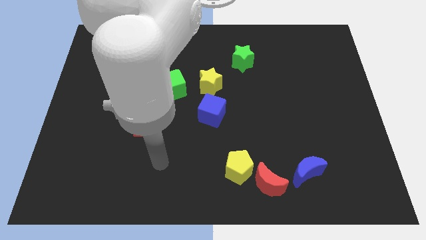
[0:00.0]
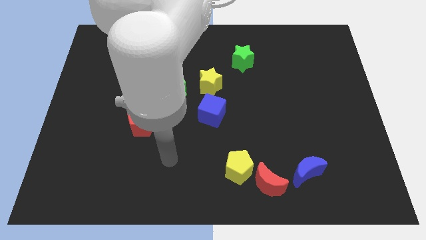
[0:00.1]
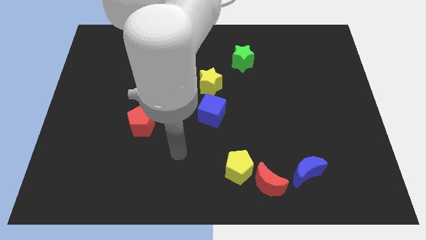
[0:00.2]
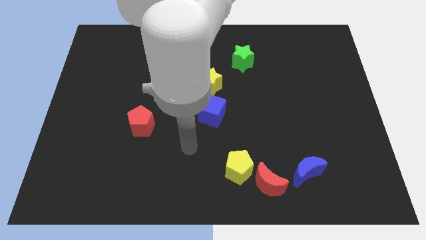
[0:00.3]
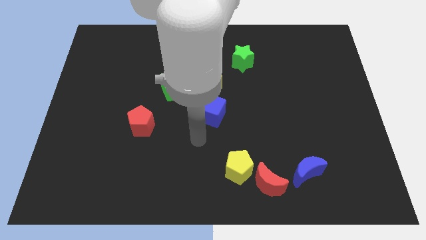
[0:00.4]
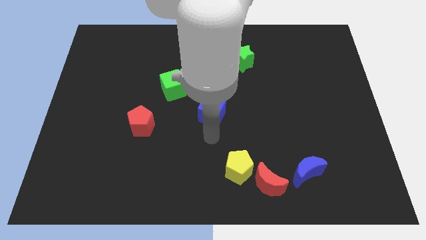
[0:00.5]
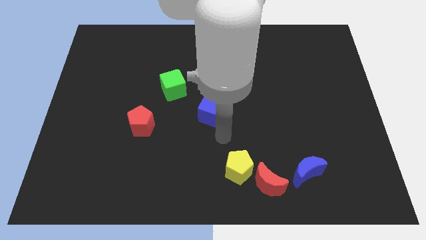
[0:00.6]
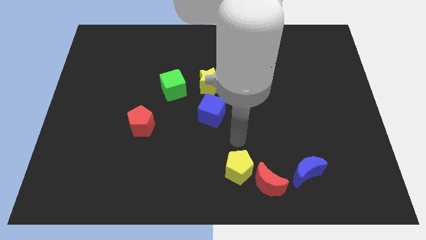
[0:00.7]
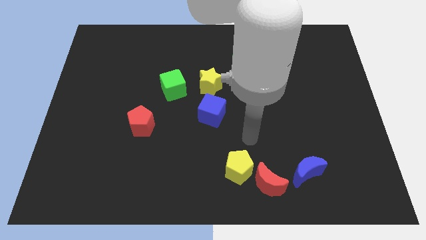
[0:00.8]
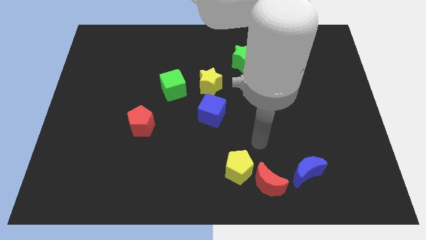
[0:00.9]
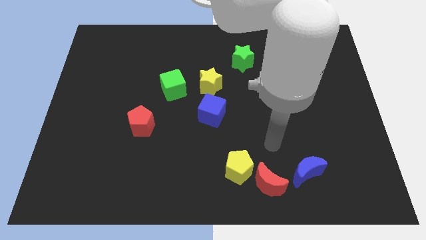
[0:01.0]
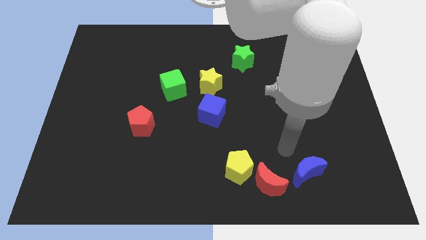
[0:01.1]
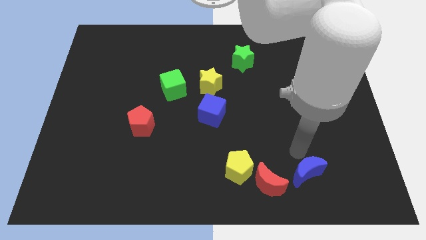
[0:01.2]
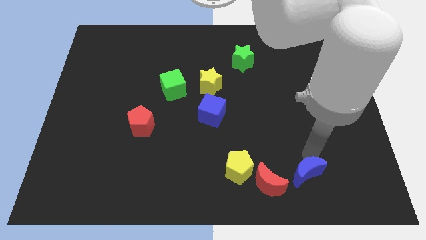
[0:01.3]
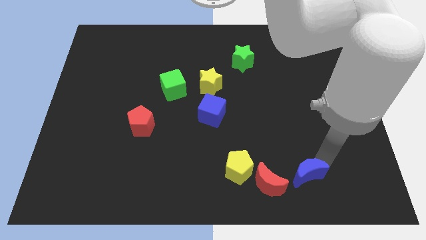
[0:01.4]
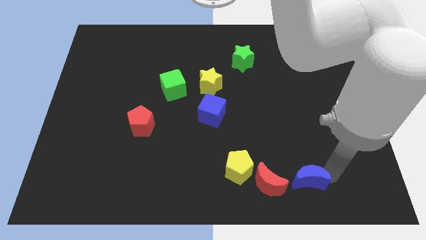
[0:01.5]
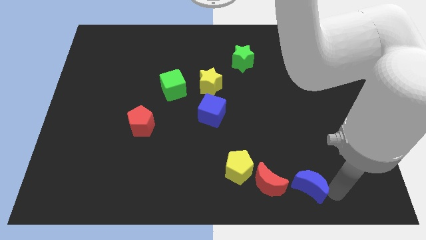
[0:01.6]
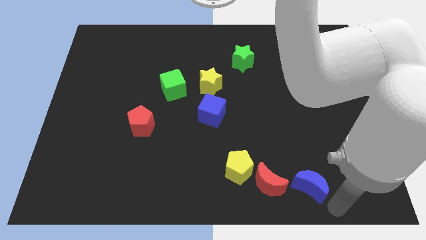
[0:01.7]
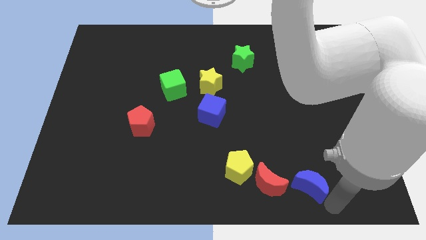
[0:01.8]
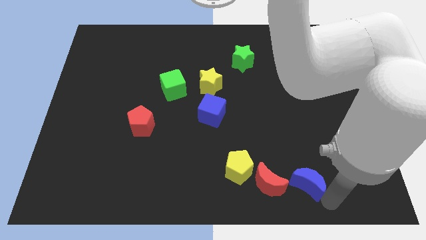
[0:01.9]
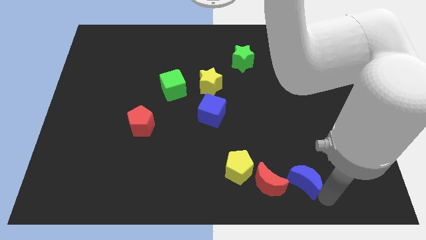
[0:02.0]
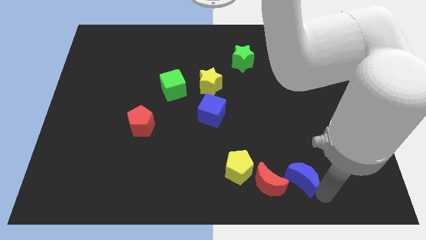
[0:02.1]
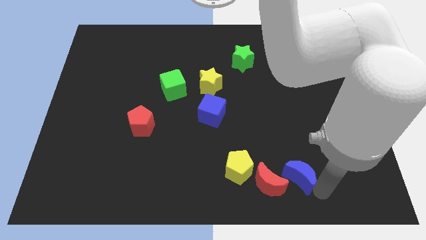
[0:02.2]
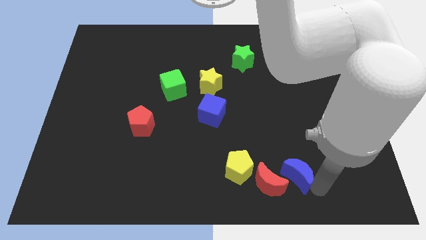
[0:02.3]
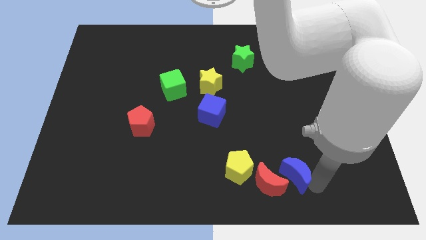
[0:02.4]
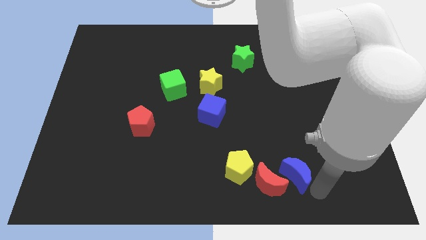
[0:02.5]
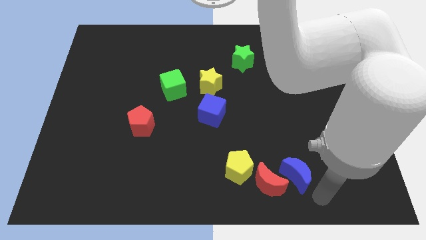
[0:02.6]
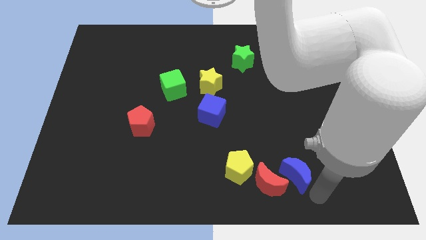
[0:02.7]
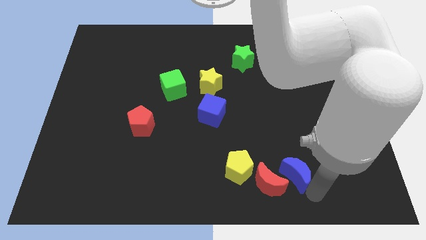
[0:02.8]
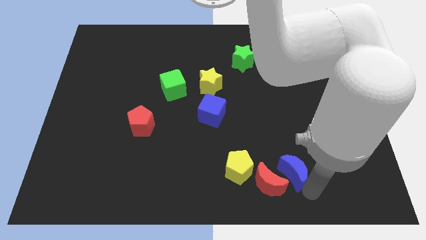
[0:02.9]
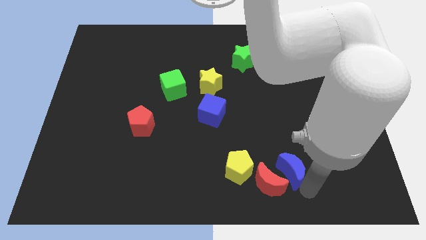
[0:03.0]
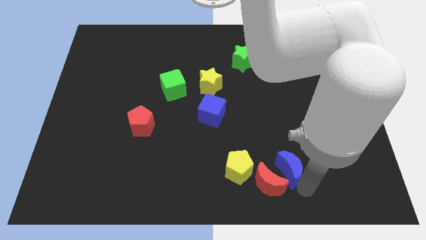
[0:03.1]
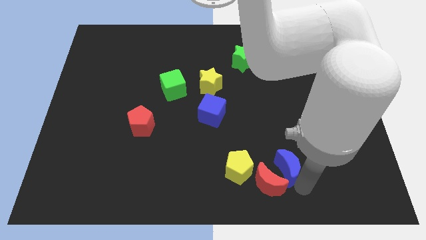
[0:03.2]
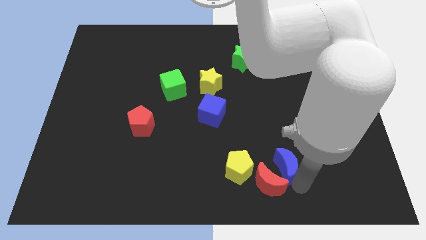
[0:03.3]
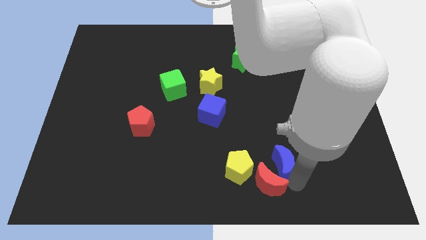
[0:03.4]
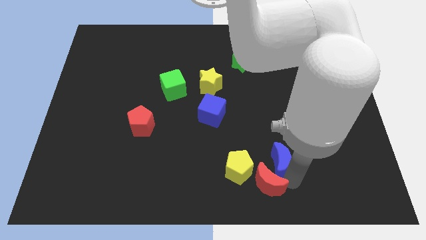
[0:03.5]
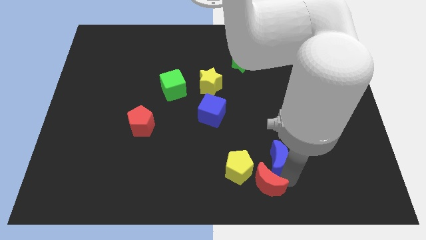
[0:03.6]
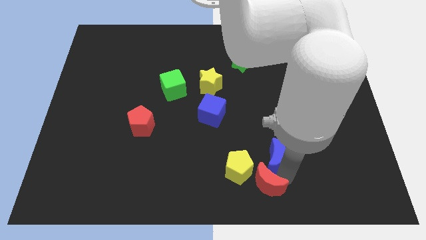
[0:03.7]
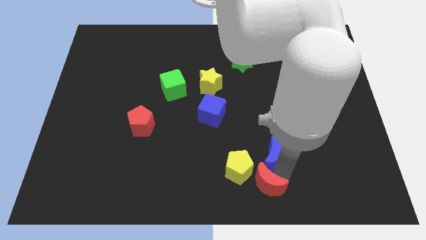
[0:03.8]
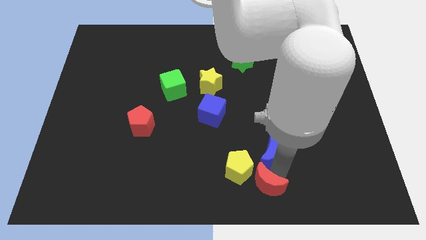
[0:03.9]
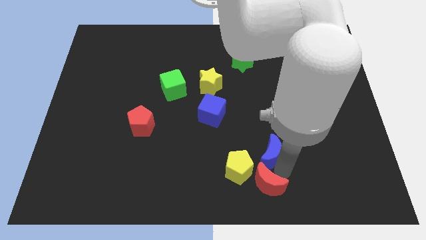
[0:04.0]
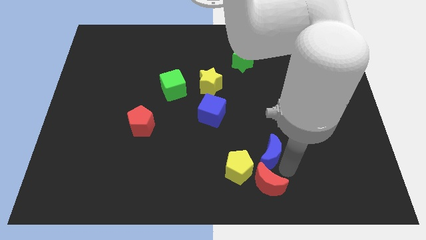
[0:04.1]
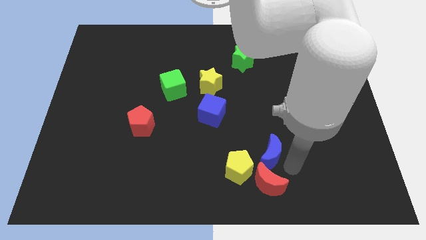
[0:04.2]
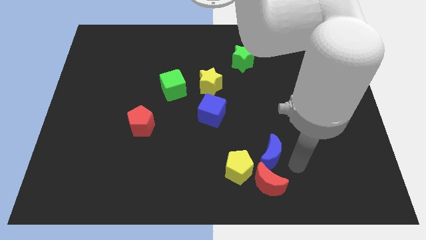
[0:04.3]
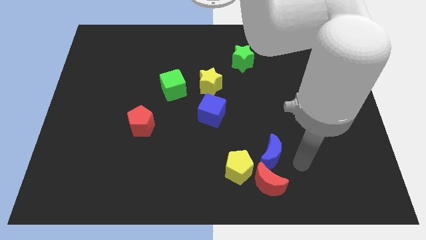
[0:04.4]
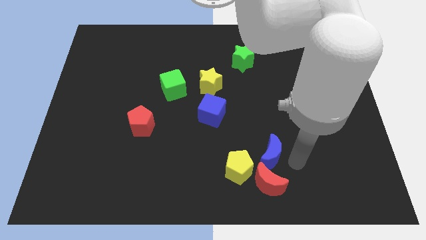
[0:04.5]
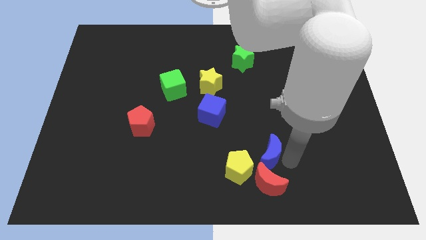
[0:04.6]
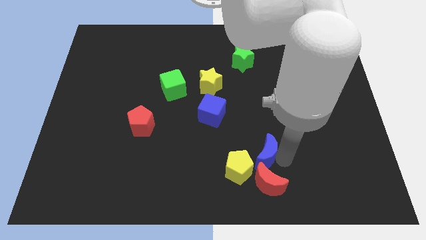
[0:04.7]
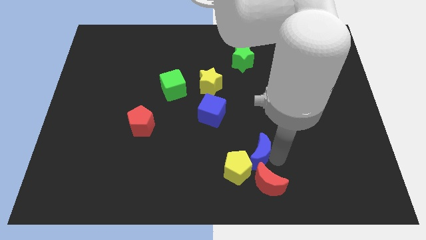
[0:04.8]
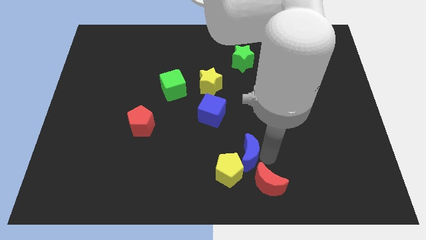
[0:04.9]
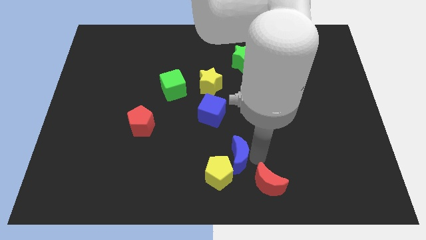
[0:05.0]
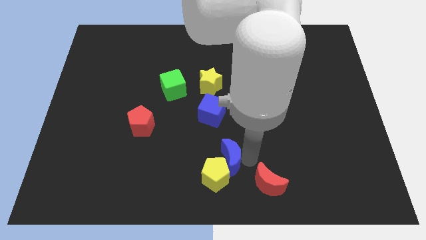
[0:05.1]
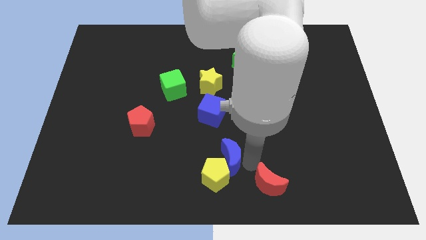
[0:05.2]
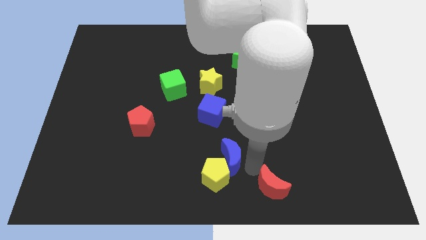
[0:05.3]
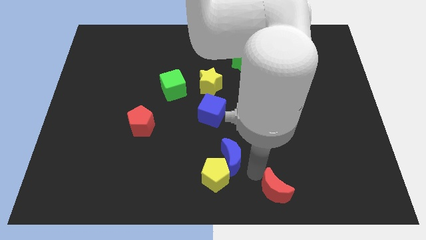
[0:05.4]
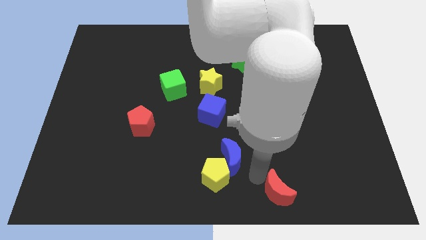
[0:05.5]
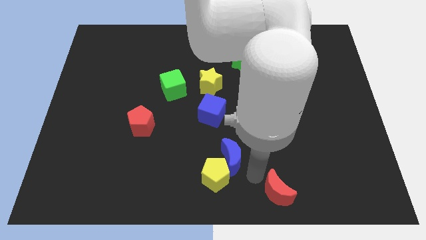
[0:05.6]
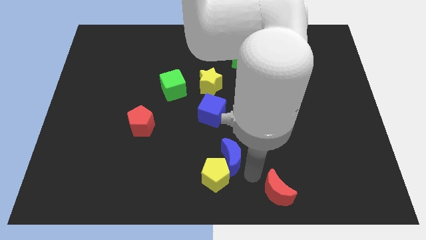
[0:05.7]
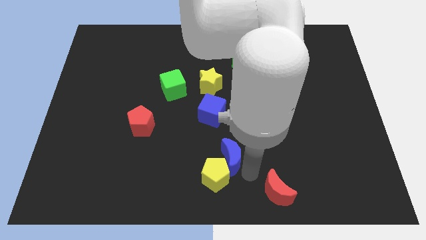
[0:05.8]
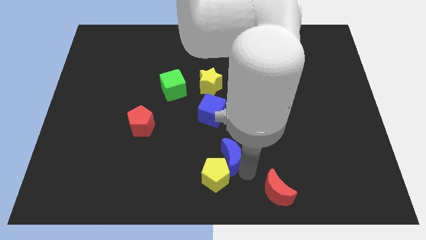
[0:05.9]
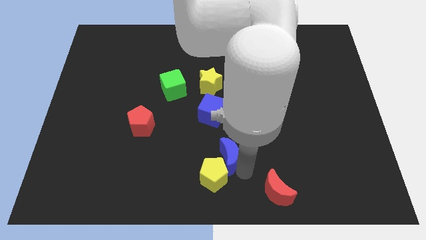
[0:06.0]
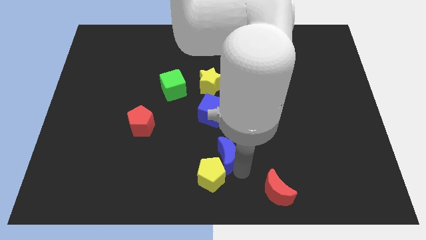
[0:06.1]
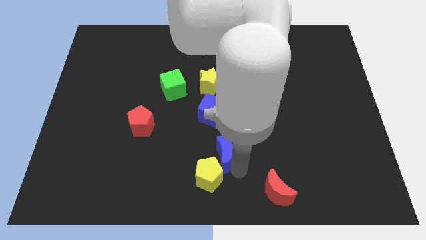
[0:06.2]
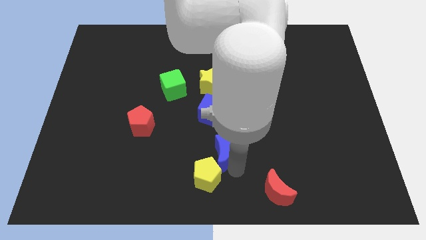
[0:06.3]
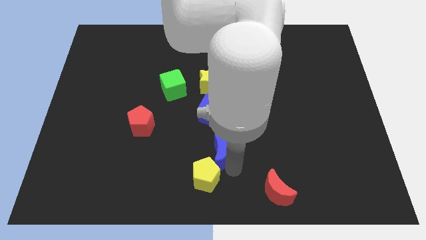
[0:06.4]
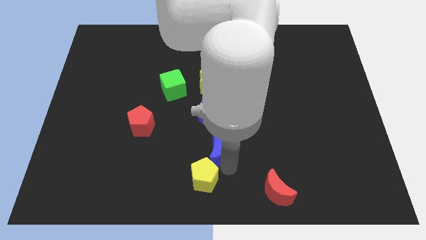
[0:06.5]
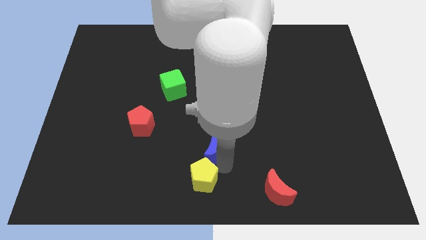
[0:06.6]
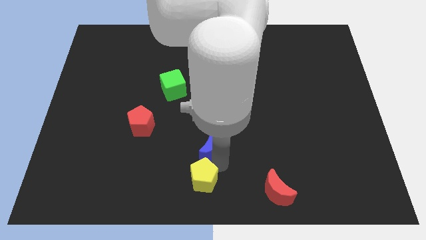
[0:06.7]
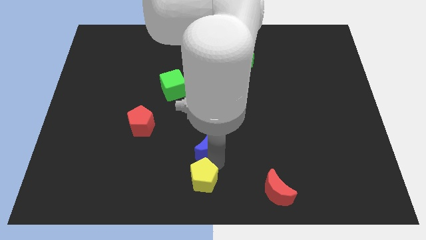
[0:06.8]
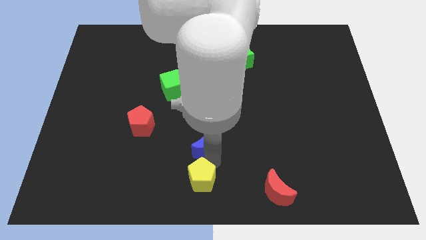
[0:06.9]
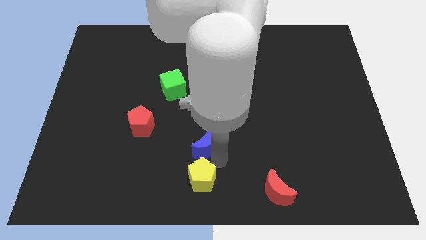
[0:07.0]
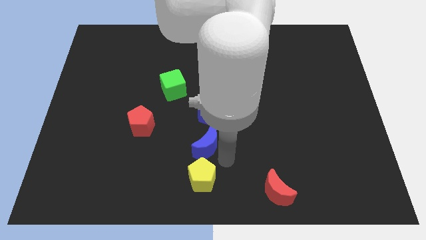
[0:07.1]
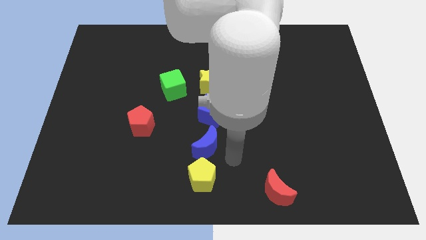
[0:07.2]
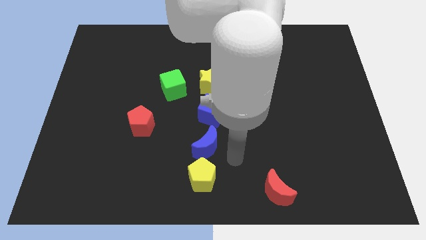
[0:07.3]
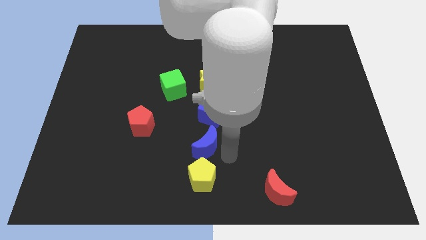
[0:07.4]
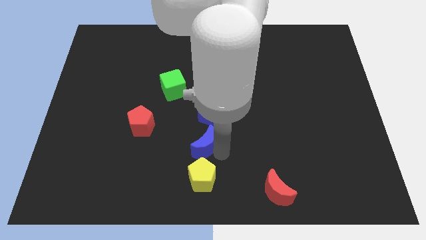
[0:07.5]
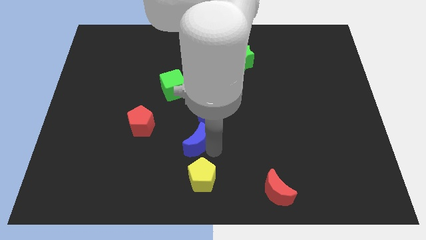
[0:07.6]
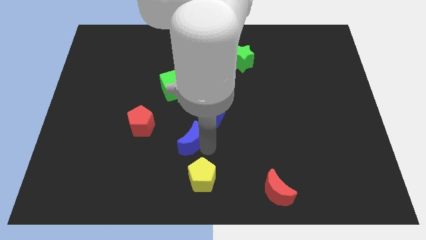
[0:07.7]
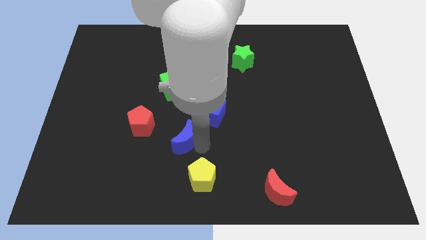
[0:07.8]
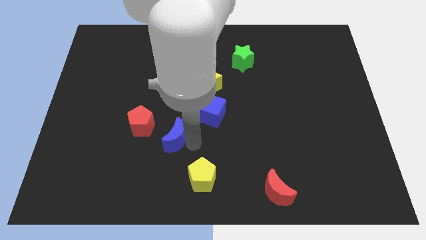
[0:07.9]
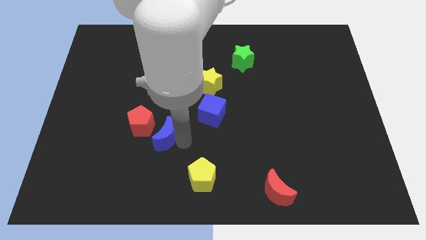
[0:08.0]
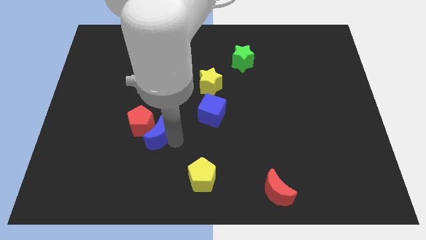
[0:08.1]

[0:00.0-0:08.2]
put the blue moon towards the red pentagon
